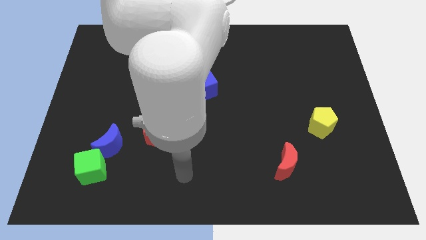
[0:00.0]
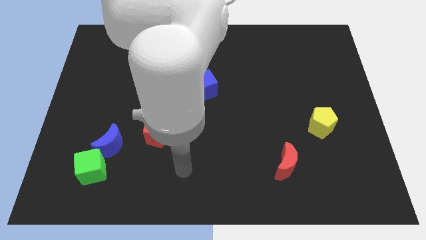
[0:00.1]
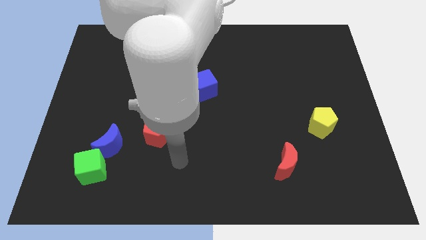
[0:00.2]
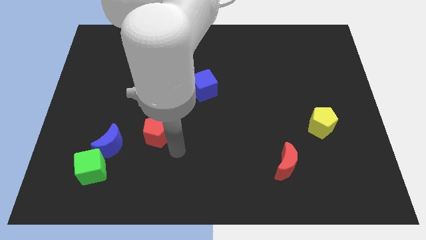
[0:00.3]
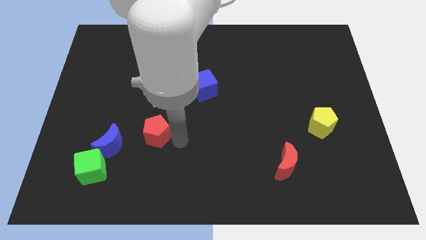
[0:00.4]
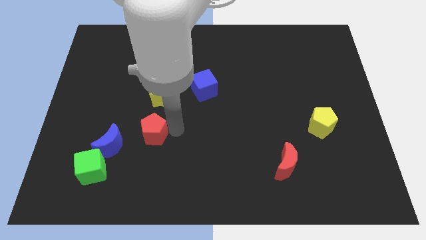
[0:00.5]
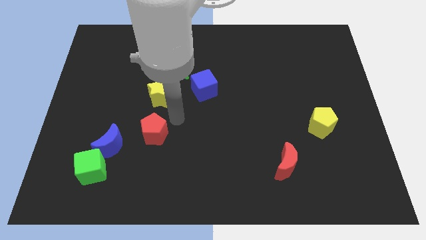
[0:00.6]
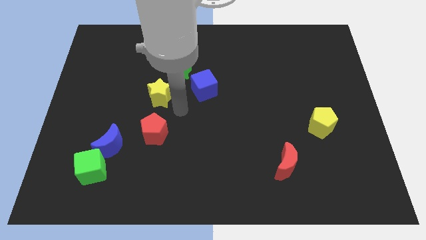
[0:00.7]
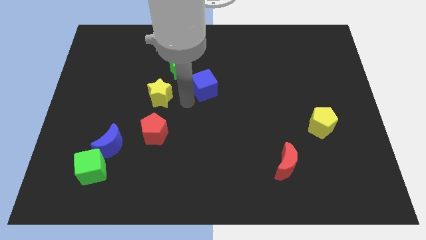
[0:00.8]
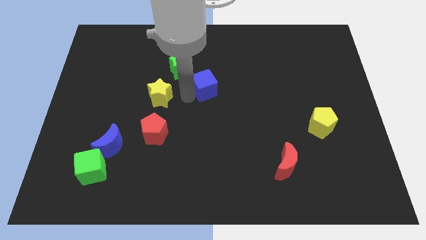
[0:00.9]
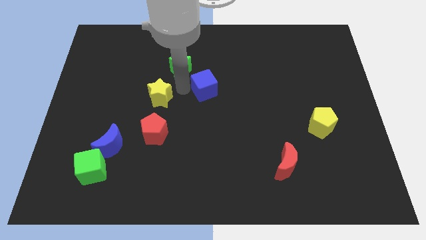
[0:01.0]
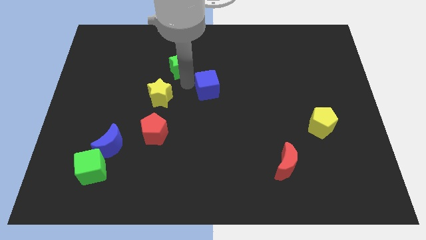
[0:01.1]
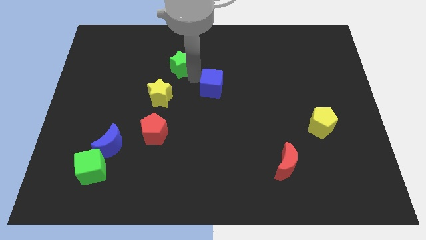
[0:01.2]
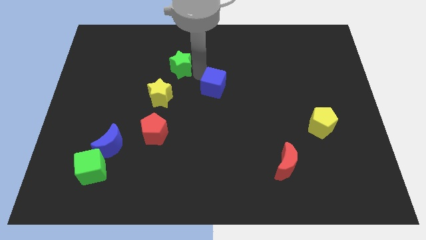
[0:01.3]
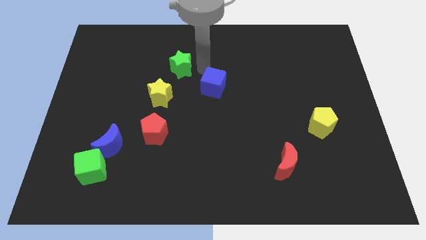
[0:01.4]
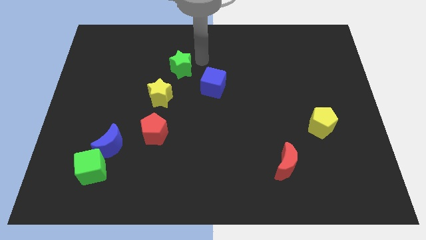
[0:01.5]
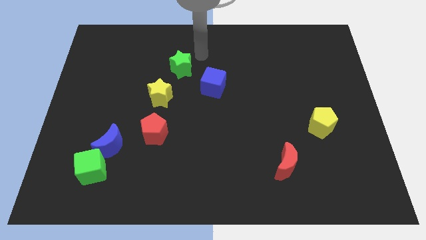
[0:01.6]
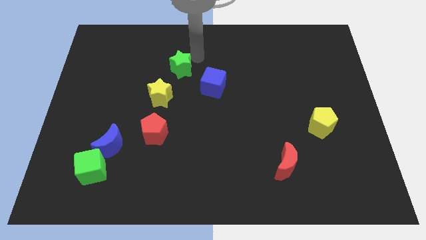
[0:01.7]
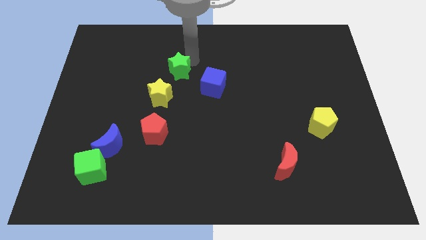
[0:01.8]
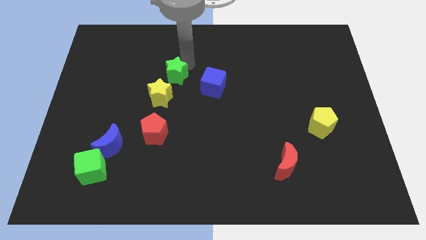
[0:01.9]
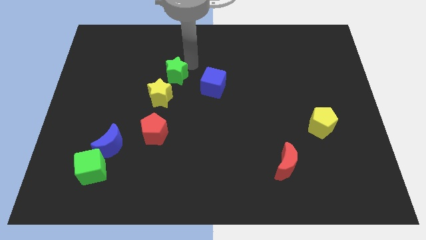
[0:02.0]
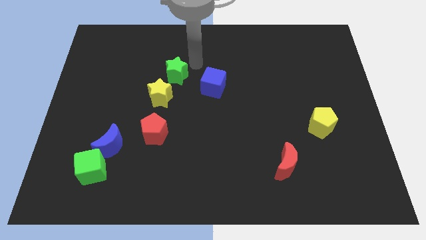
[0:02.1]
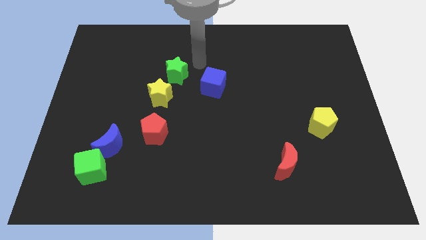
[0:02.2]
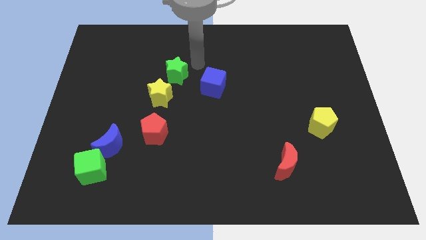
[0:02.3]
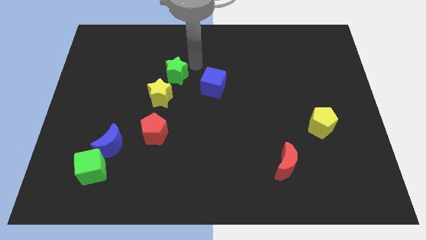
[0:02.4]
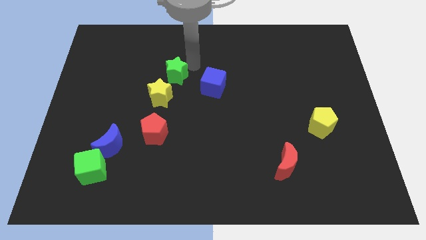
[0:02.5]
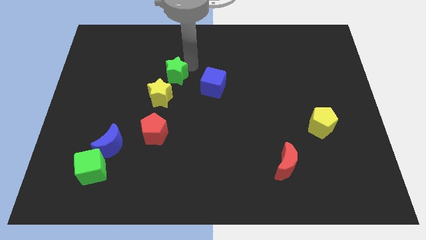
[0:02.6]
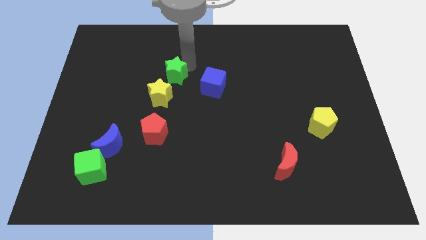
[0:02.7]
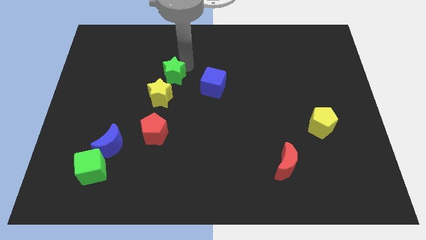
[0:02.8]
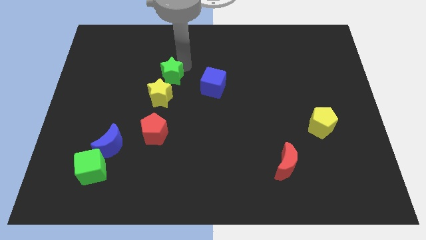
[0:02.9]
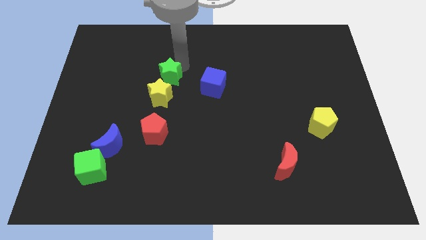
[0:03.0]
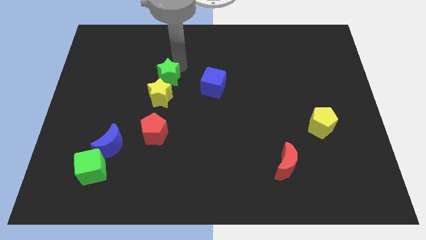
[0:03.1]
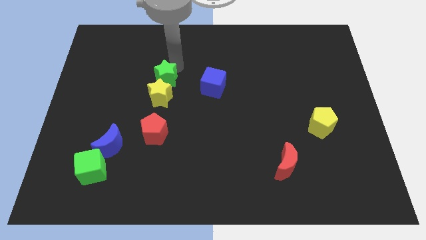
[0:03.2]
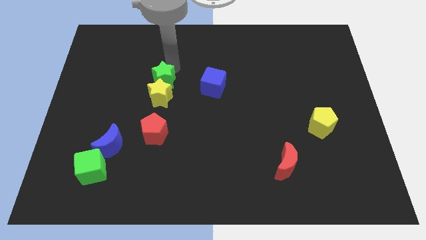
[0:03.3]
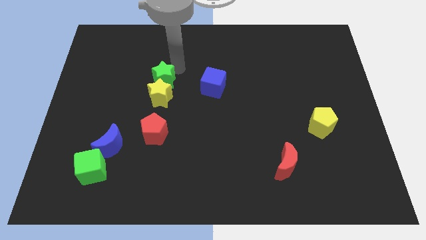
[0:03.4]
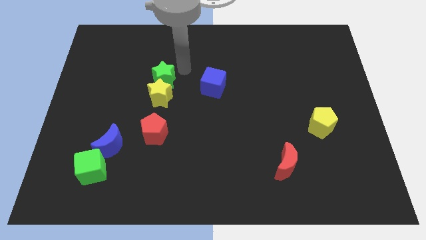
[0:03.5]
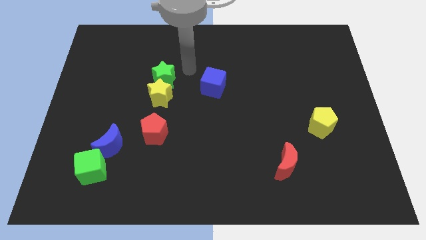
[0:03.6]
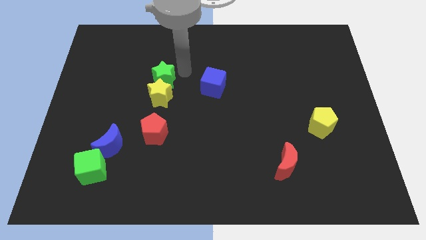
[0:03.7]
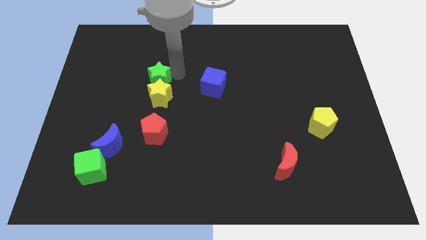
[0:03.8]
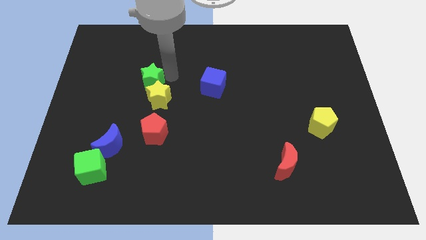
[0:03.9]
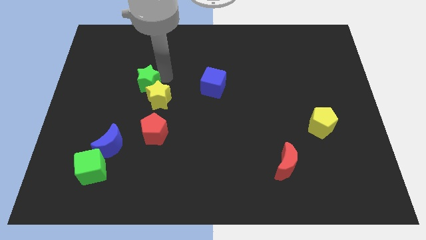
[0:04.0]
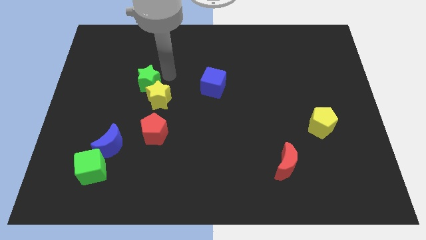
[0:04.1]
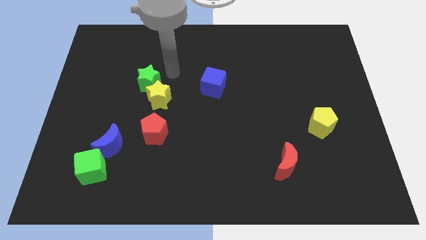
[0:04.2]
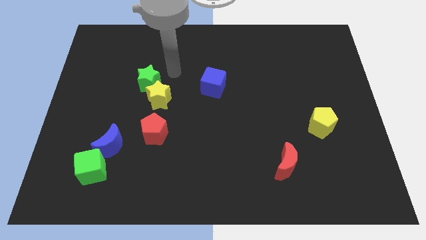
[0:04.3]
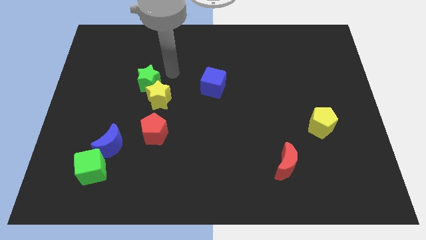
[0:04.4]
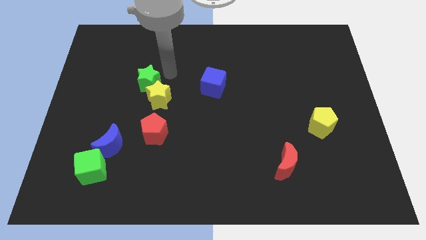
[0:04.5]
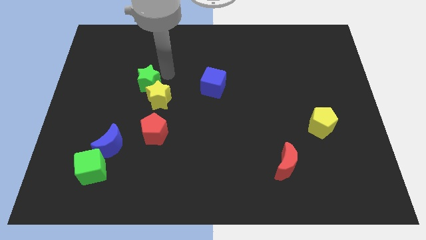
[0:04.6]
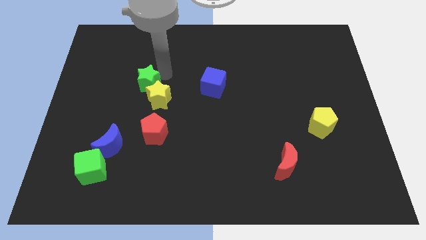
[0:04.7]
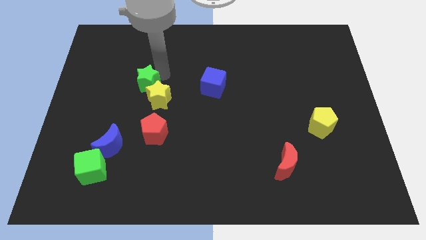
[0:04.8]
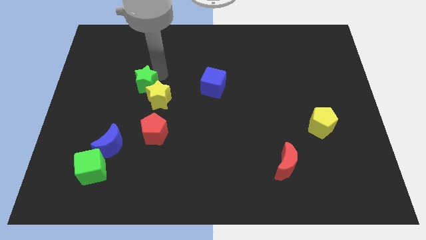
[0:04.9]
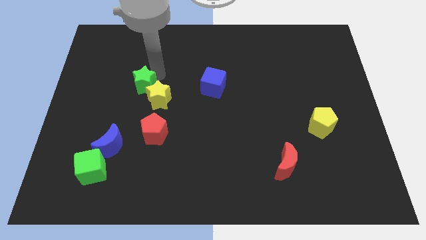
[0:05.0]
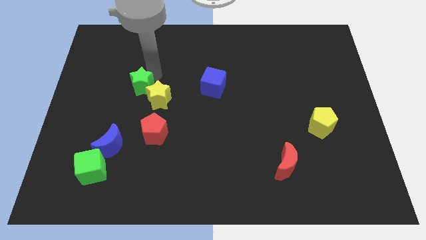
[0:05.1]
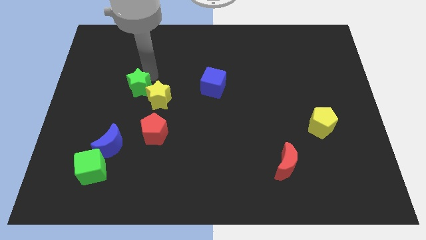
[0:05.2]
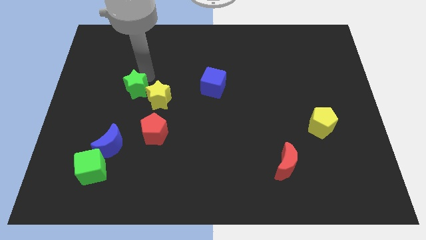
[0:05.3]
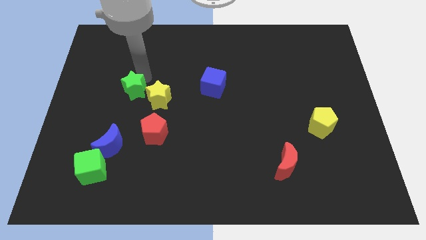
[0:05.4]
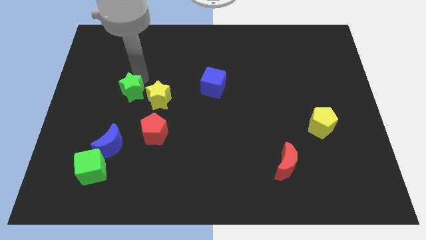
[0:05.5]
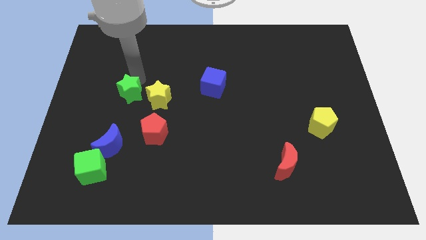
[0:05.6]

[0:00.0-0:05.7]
put the green star to the top of the blue moon
